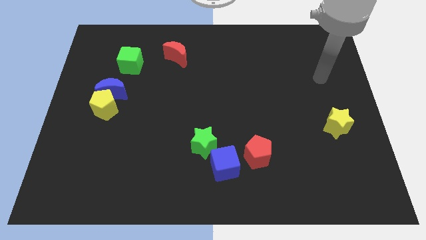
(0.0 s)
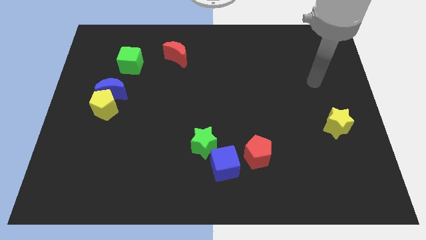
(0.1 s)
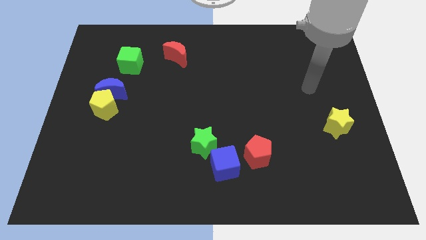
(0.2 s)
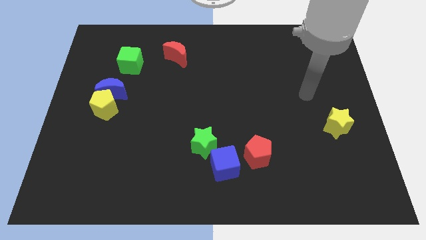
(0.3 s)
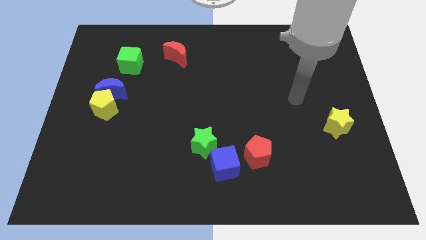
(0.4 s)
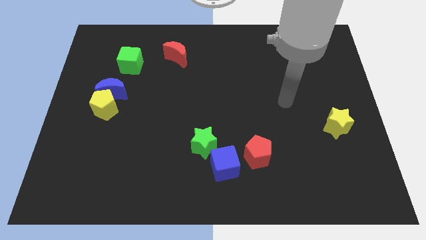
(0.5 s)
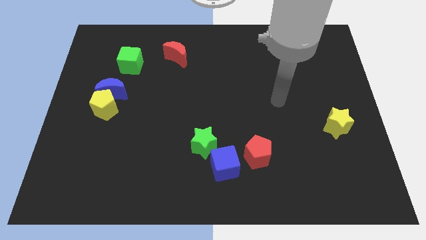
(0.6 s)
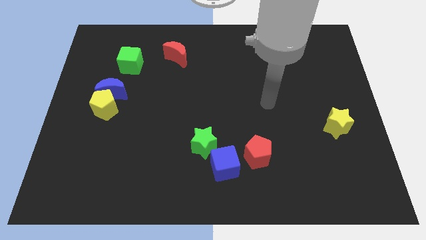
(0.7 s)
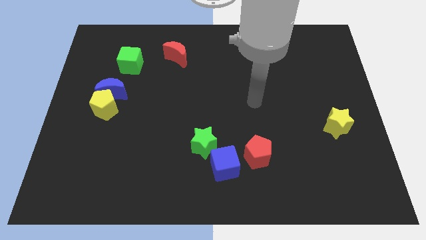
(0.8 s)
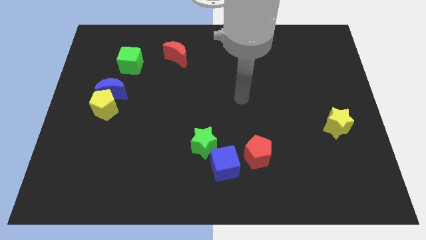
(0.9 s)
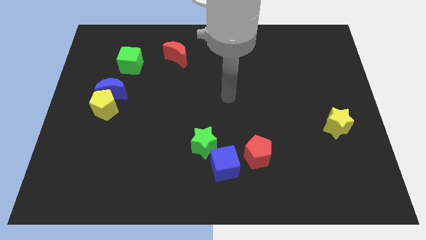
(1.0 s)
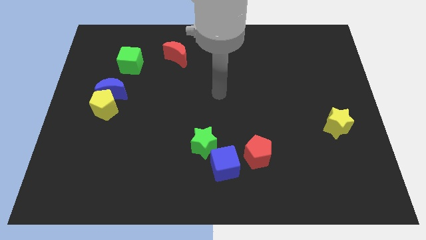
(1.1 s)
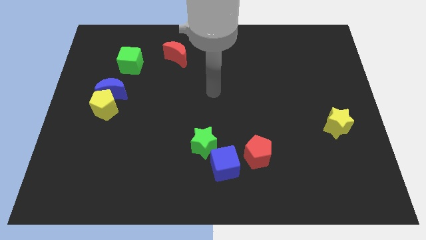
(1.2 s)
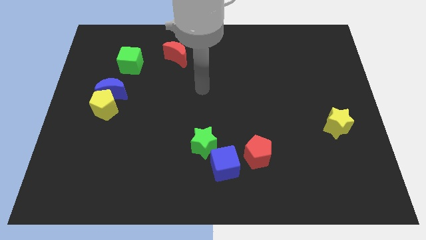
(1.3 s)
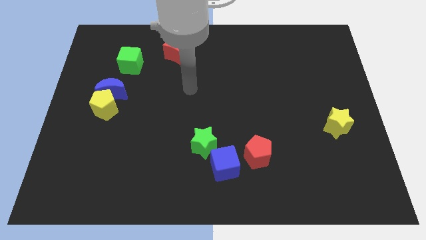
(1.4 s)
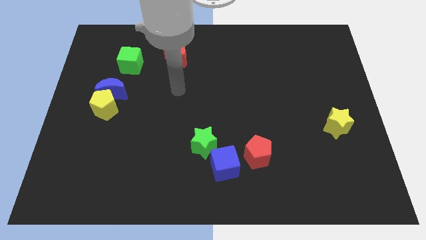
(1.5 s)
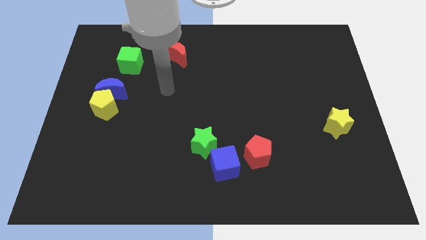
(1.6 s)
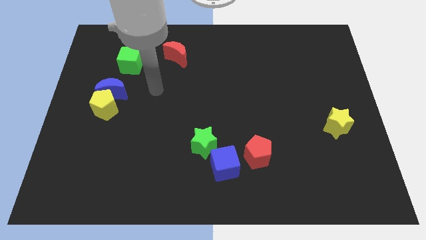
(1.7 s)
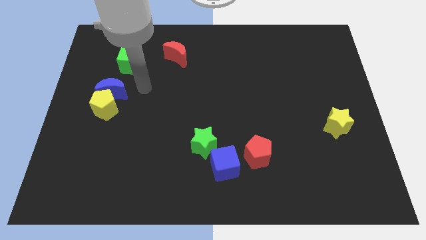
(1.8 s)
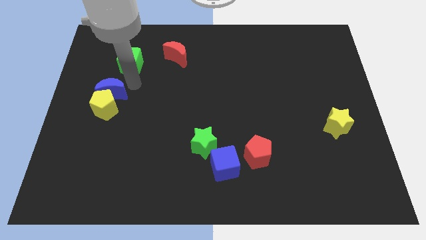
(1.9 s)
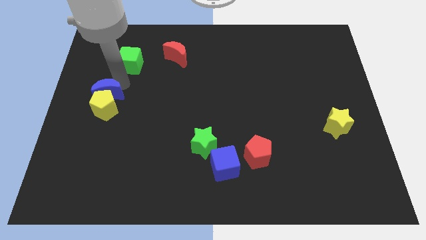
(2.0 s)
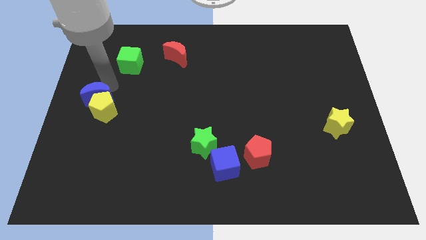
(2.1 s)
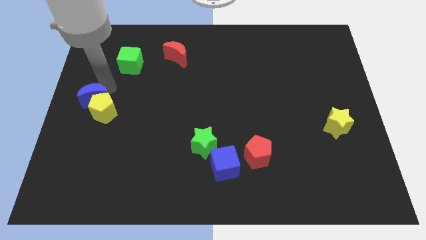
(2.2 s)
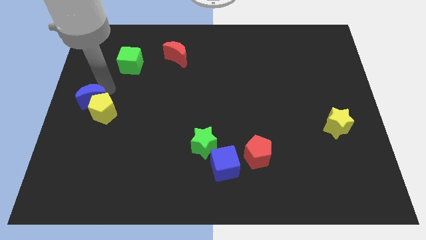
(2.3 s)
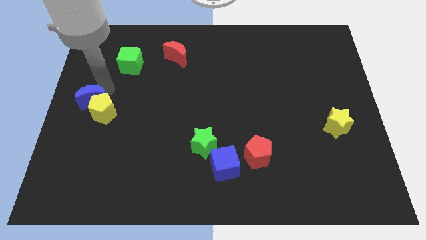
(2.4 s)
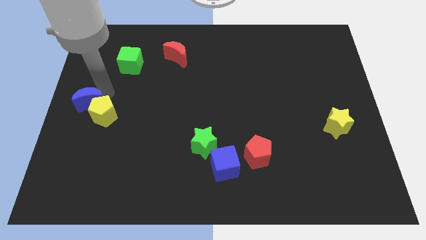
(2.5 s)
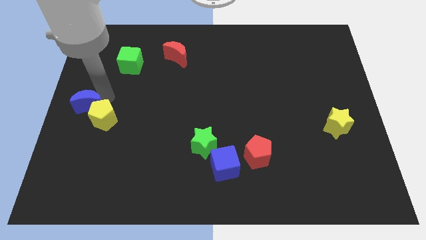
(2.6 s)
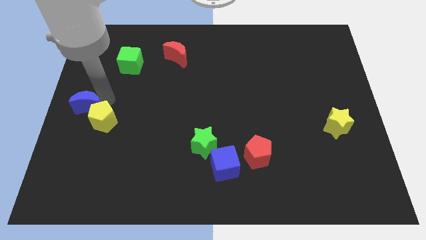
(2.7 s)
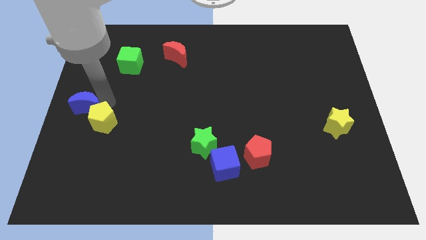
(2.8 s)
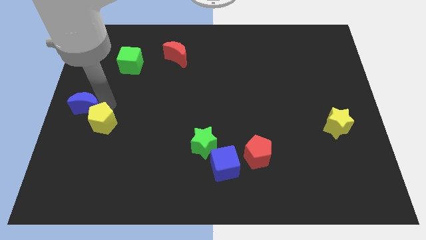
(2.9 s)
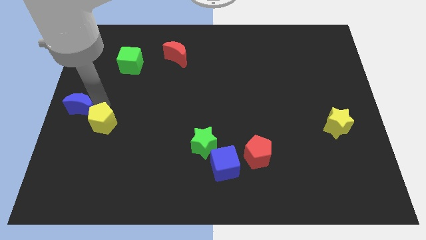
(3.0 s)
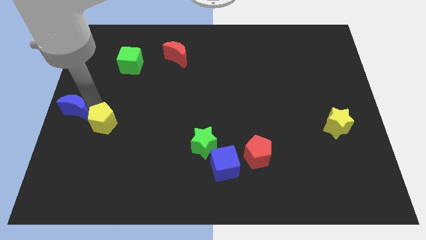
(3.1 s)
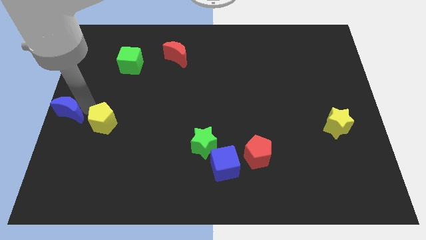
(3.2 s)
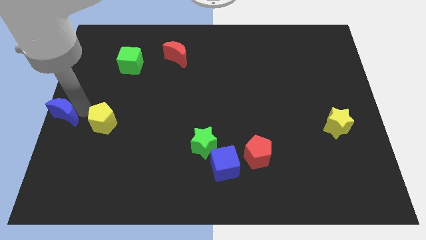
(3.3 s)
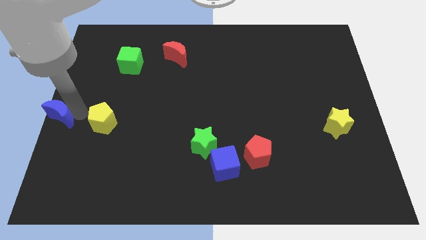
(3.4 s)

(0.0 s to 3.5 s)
move the yellow pentagon away from the blue moon

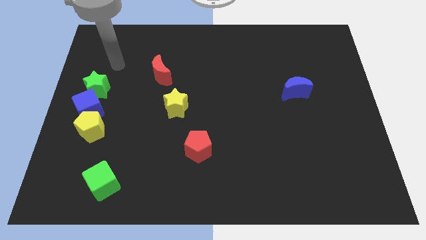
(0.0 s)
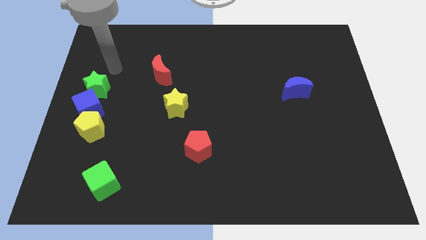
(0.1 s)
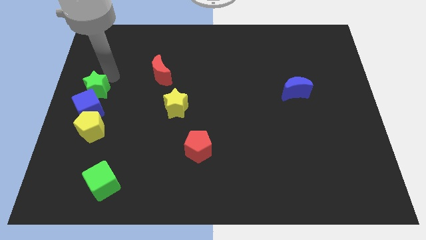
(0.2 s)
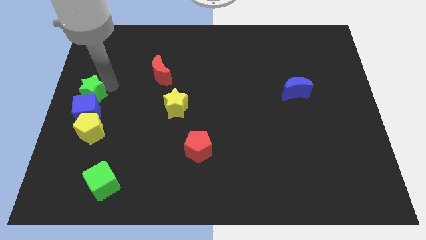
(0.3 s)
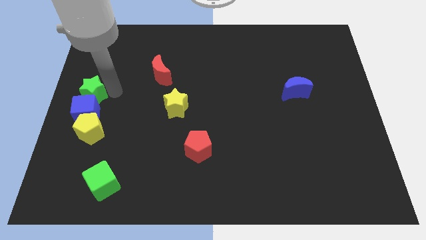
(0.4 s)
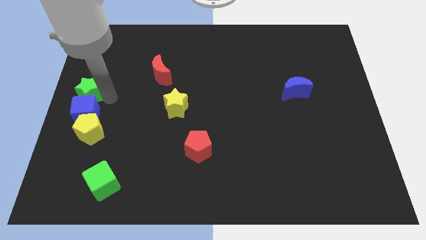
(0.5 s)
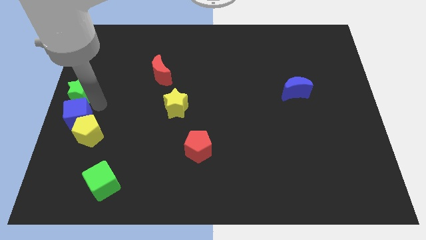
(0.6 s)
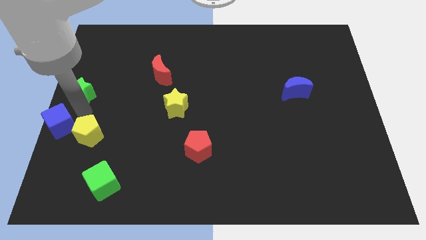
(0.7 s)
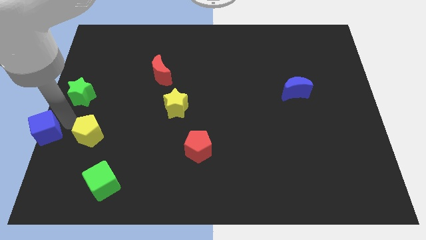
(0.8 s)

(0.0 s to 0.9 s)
move the yellow pentagon away from the blue cube

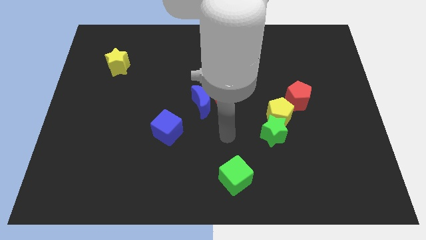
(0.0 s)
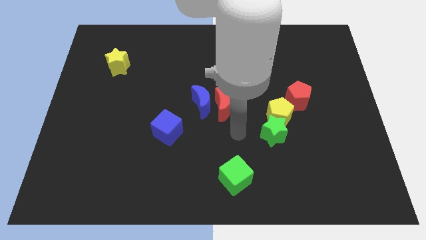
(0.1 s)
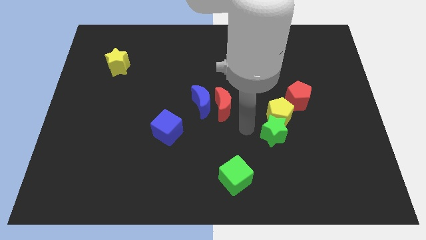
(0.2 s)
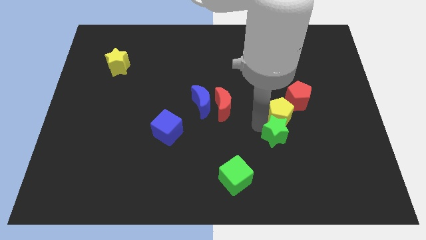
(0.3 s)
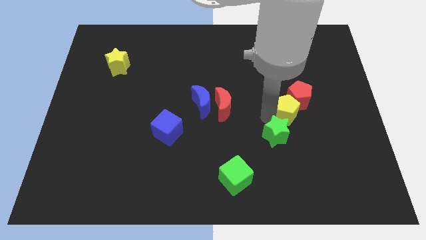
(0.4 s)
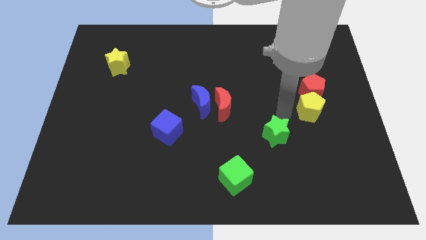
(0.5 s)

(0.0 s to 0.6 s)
move the green star away from the yellow pentagon

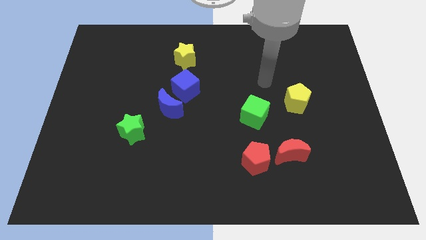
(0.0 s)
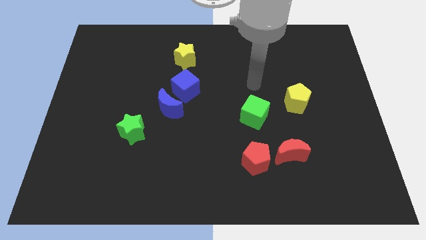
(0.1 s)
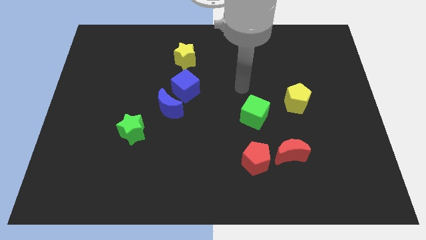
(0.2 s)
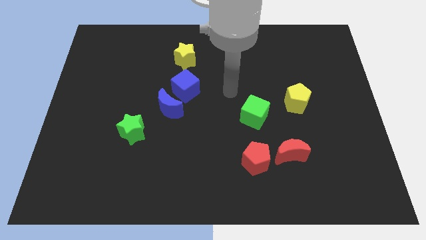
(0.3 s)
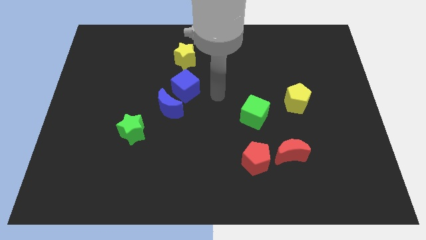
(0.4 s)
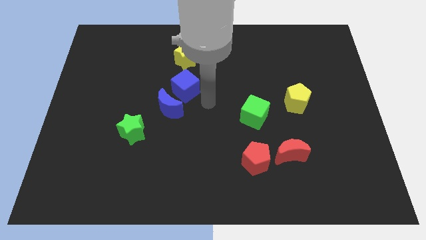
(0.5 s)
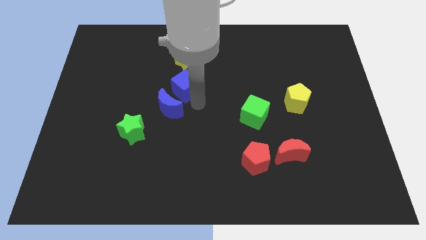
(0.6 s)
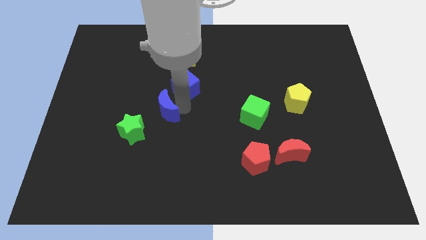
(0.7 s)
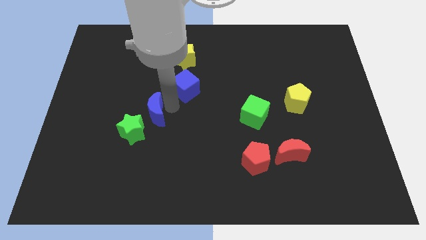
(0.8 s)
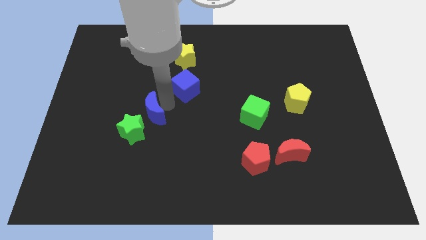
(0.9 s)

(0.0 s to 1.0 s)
separate the blue cube from the blue moon

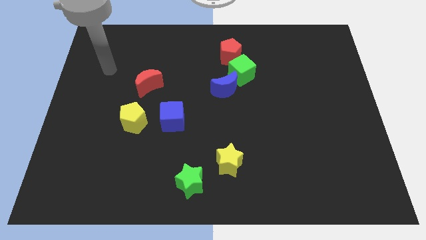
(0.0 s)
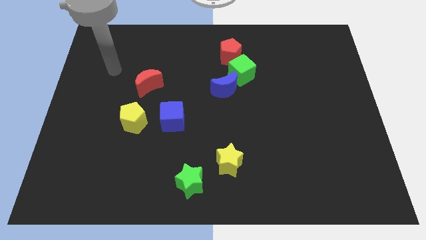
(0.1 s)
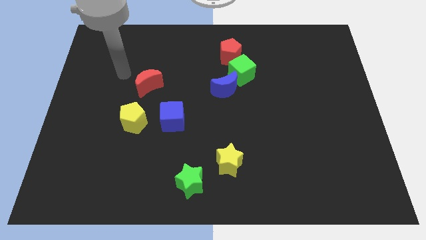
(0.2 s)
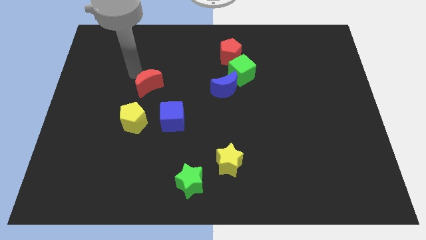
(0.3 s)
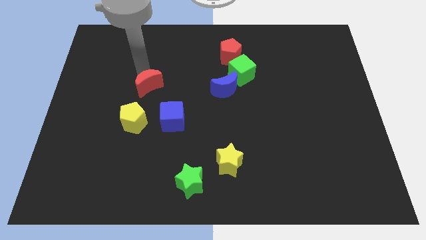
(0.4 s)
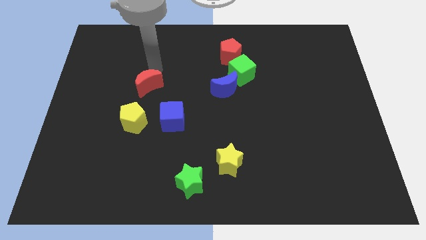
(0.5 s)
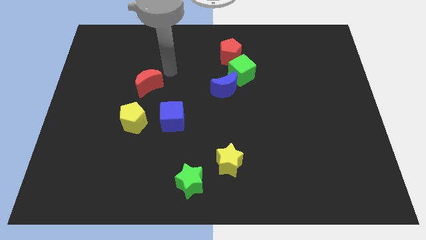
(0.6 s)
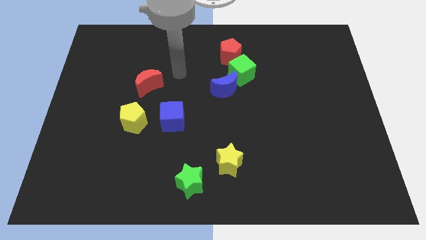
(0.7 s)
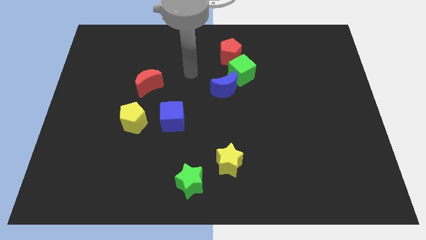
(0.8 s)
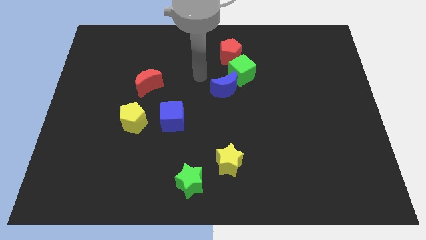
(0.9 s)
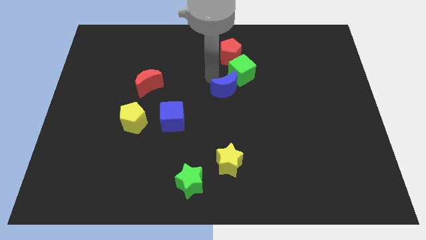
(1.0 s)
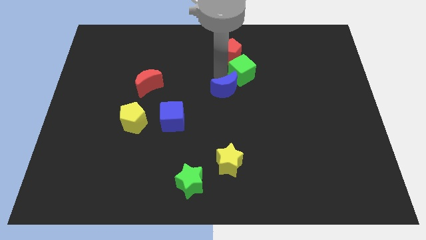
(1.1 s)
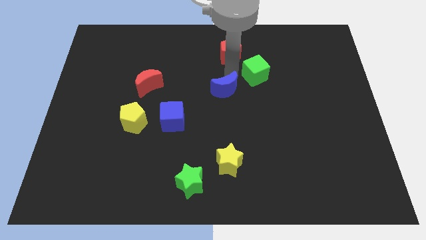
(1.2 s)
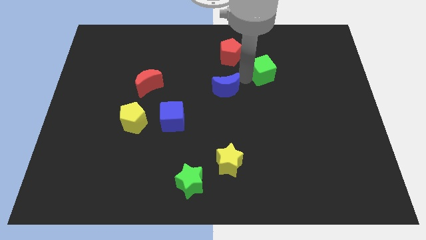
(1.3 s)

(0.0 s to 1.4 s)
pull the blue moon apart from the green cube

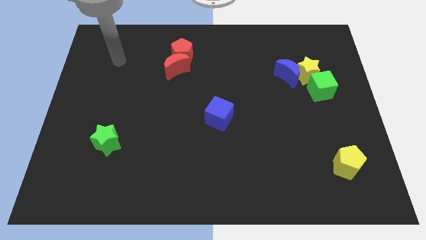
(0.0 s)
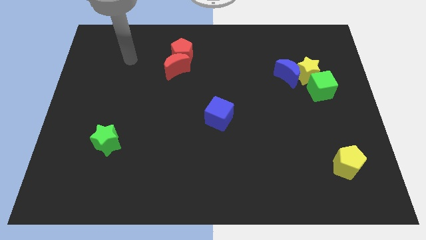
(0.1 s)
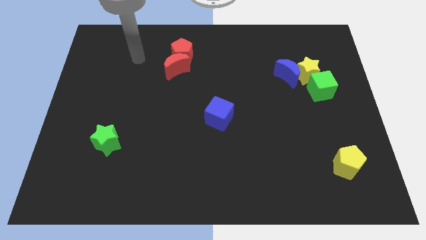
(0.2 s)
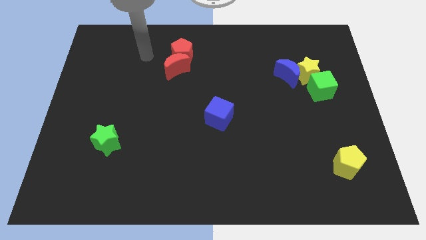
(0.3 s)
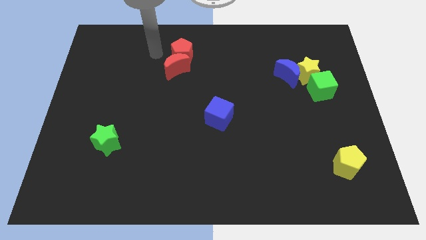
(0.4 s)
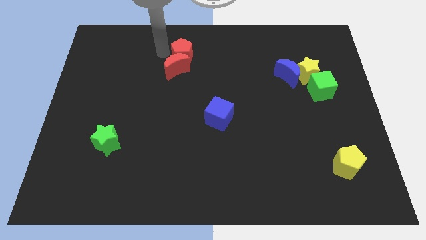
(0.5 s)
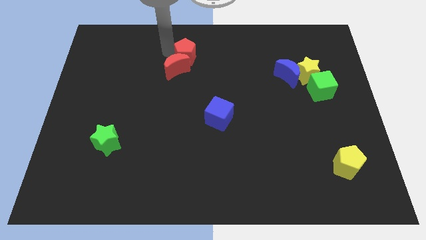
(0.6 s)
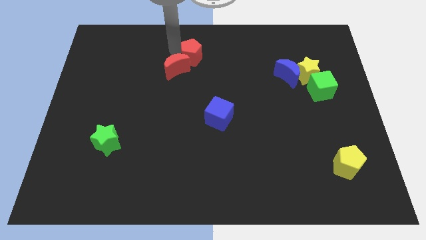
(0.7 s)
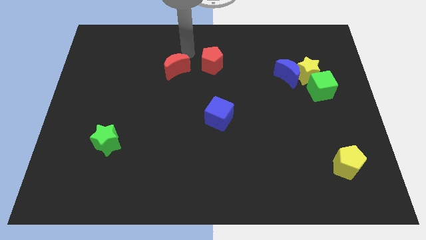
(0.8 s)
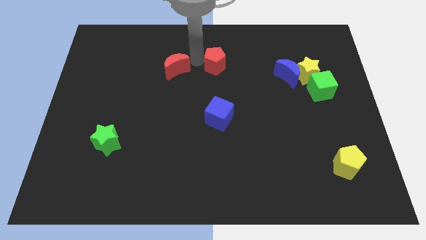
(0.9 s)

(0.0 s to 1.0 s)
move the red moon away from the red pentagon

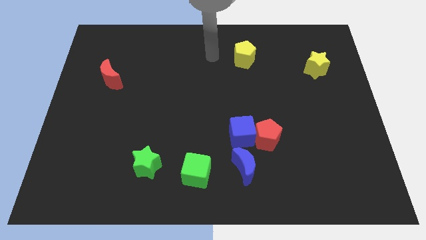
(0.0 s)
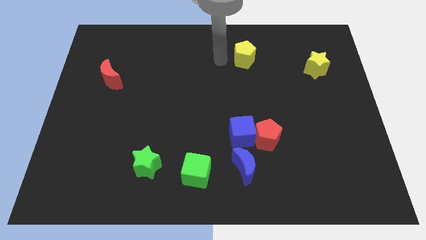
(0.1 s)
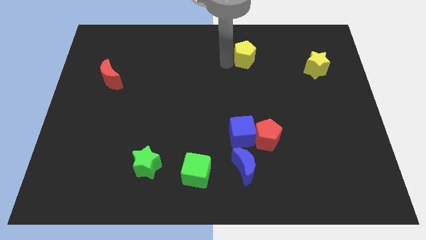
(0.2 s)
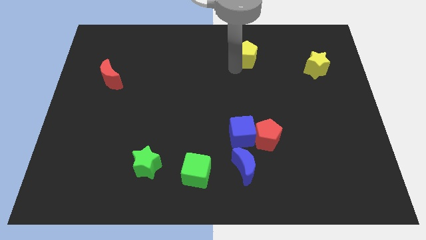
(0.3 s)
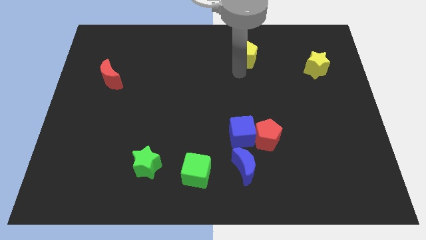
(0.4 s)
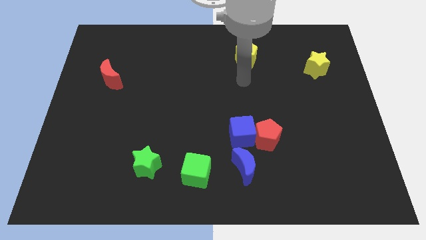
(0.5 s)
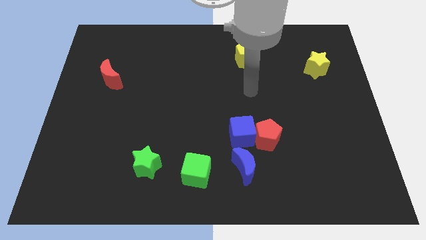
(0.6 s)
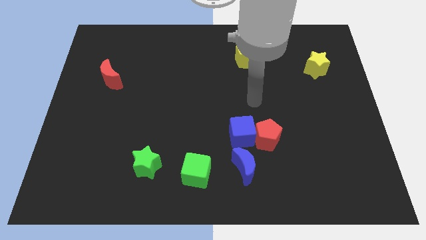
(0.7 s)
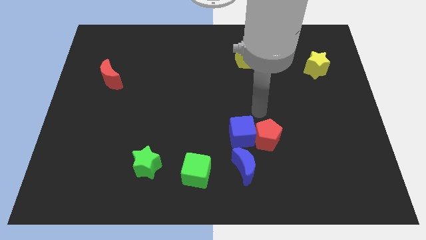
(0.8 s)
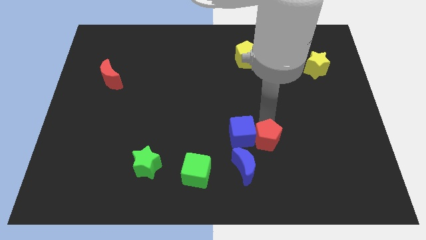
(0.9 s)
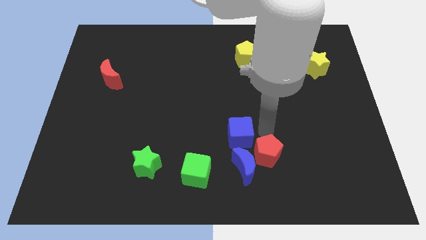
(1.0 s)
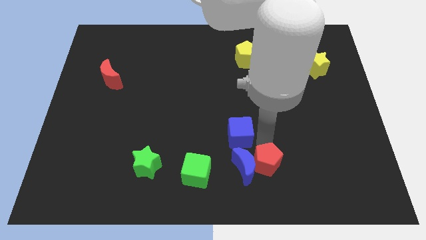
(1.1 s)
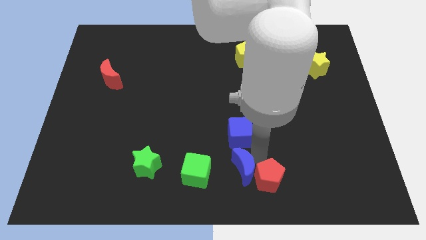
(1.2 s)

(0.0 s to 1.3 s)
pull the blue cube apart from the red pentagon and blue moon
